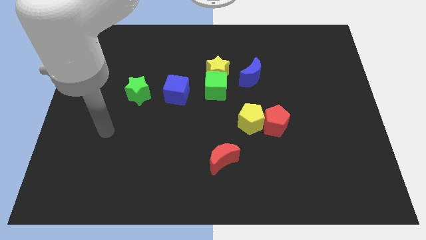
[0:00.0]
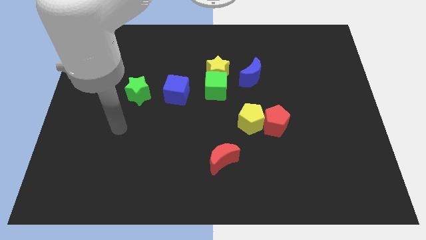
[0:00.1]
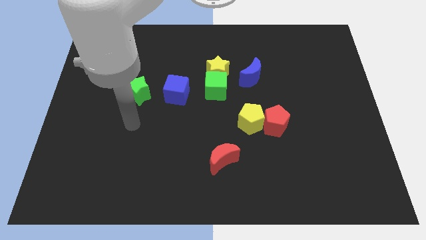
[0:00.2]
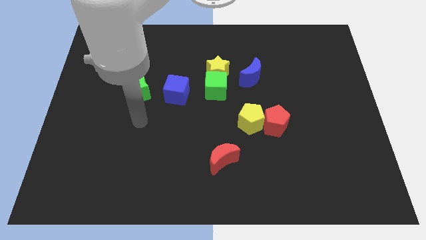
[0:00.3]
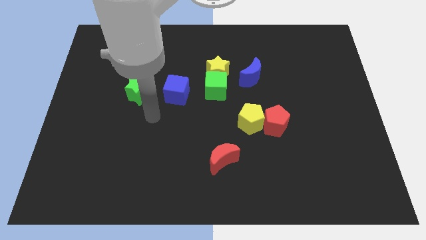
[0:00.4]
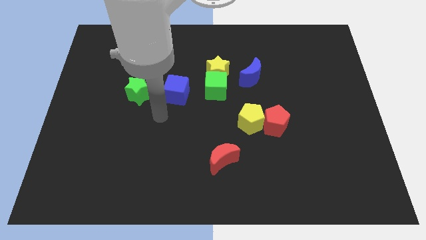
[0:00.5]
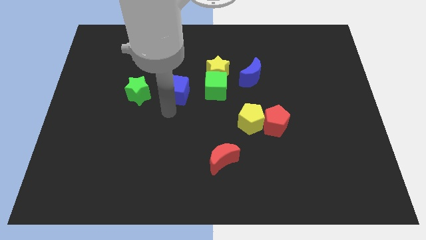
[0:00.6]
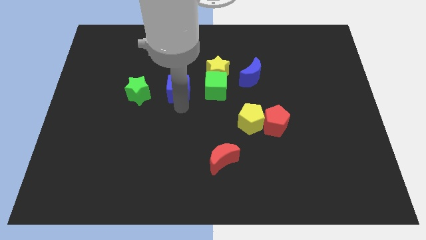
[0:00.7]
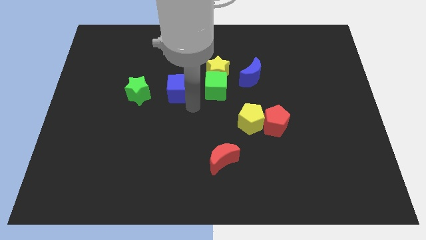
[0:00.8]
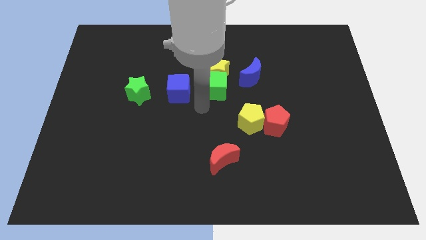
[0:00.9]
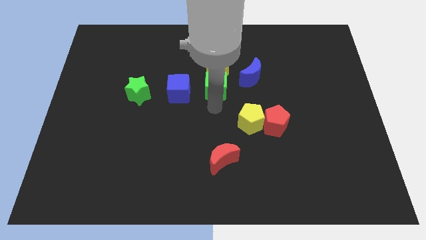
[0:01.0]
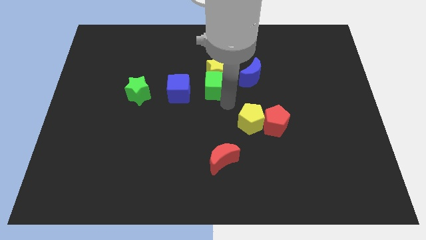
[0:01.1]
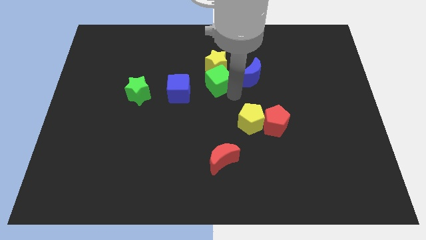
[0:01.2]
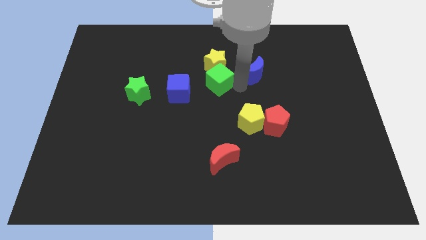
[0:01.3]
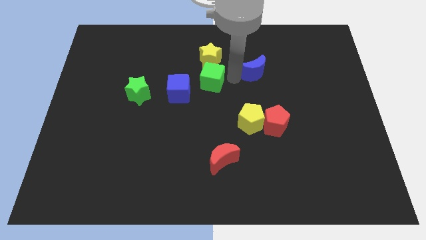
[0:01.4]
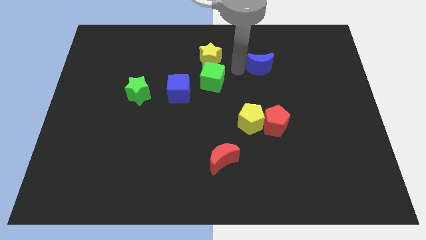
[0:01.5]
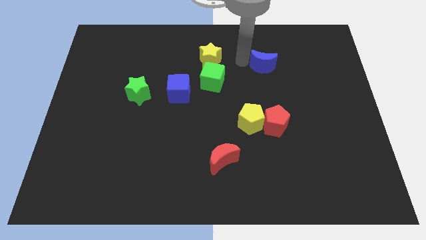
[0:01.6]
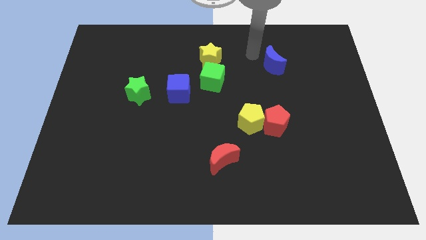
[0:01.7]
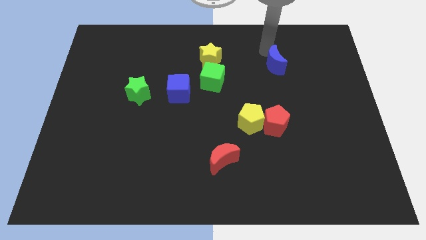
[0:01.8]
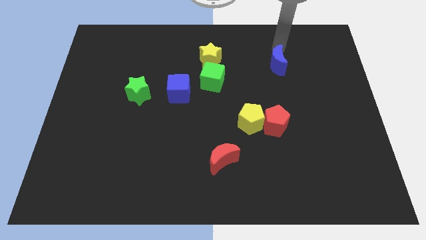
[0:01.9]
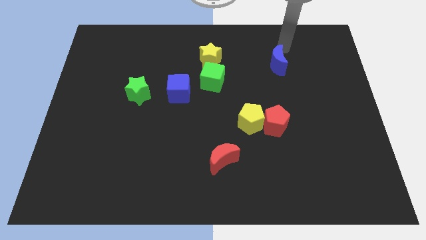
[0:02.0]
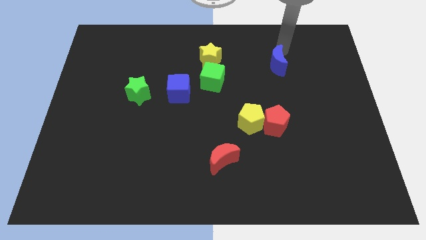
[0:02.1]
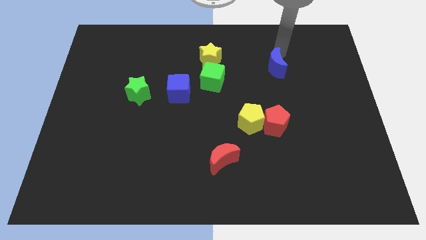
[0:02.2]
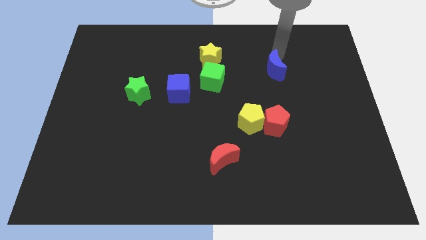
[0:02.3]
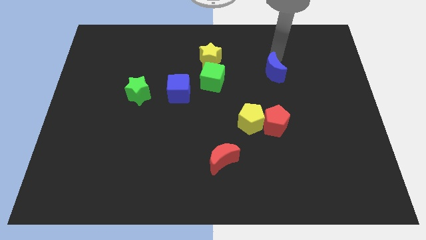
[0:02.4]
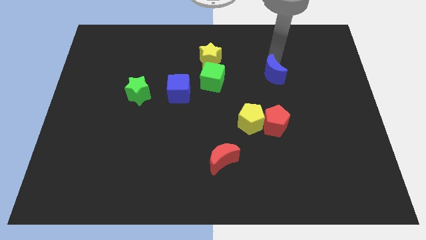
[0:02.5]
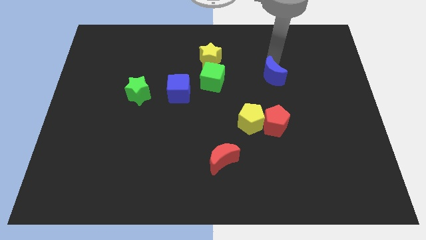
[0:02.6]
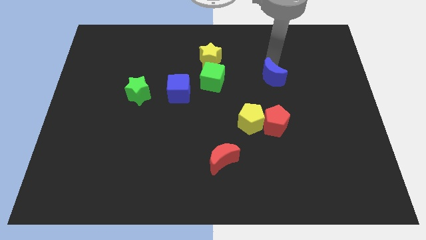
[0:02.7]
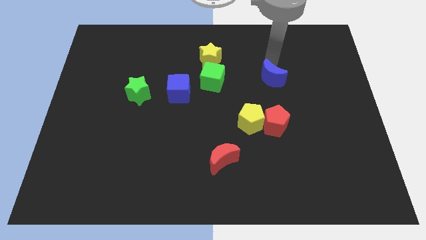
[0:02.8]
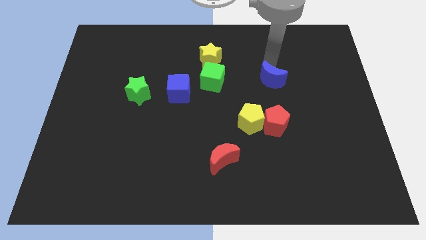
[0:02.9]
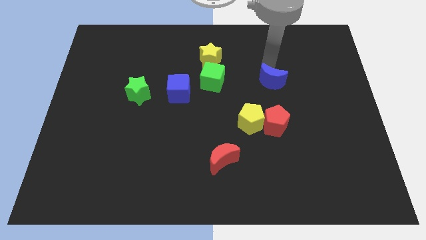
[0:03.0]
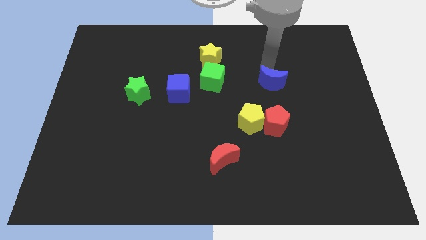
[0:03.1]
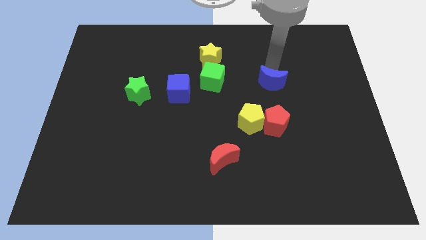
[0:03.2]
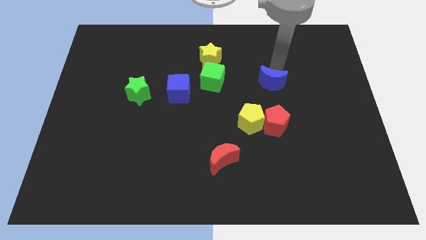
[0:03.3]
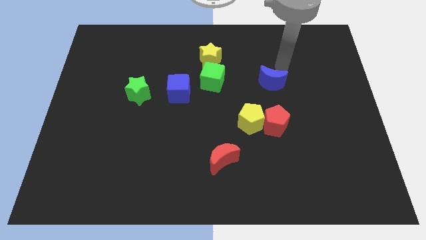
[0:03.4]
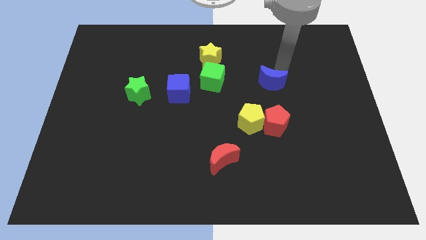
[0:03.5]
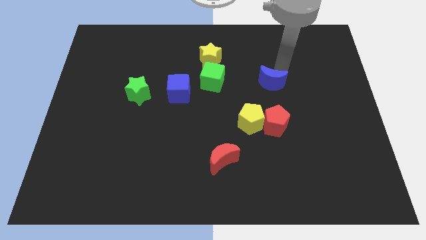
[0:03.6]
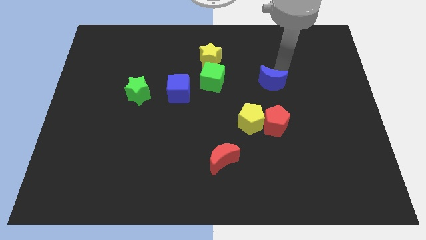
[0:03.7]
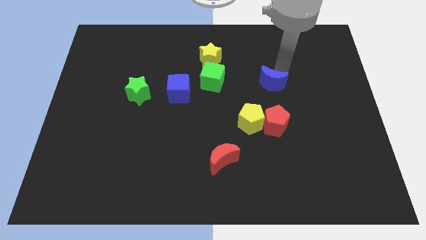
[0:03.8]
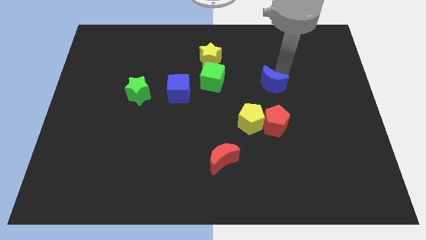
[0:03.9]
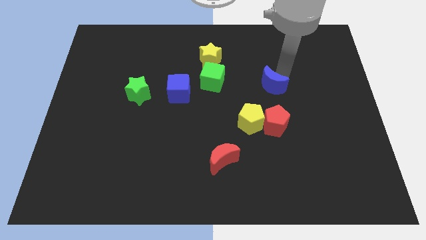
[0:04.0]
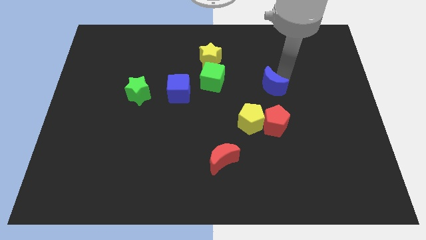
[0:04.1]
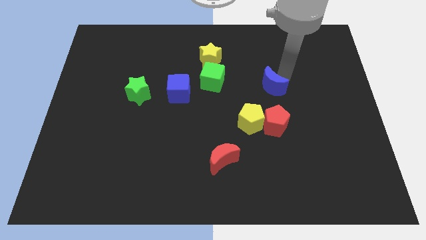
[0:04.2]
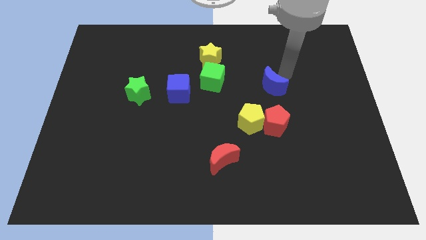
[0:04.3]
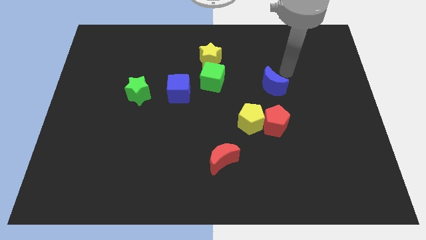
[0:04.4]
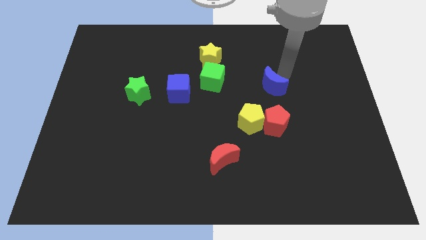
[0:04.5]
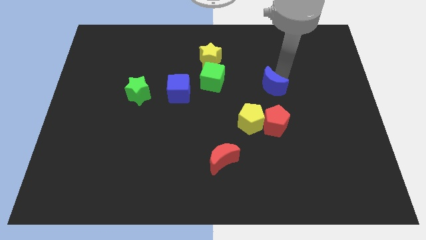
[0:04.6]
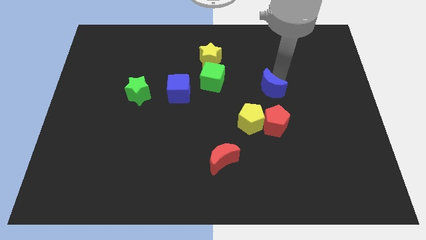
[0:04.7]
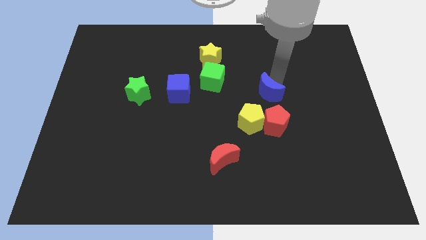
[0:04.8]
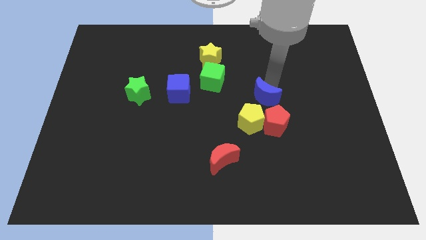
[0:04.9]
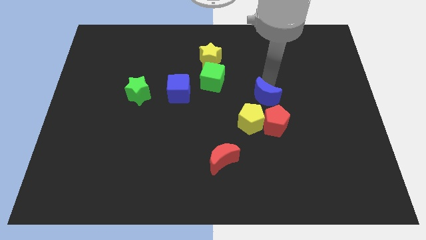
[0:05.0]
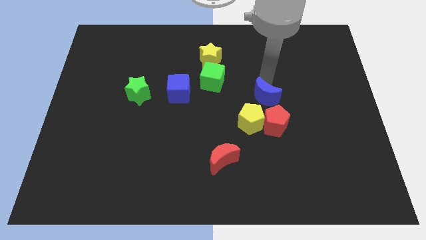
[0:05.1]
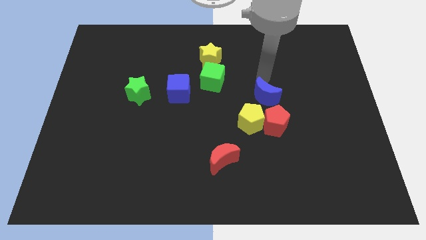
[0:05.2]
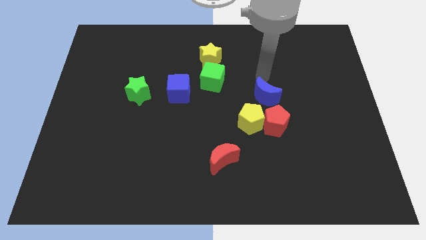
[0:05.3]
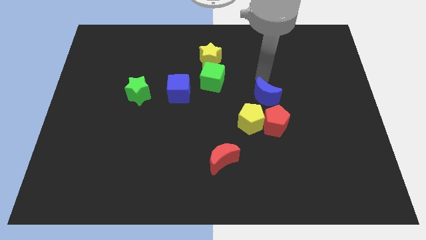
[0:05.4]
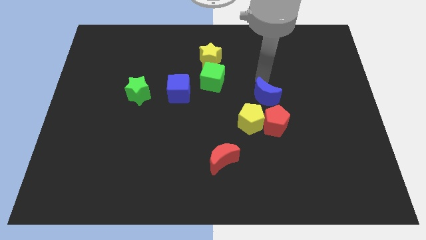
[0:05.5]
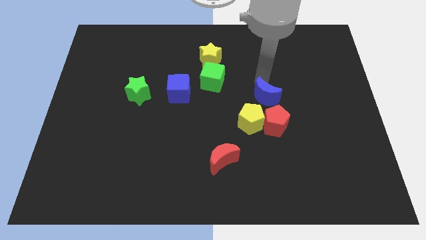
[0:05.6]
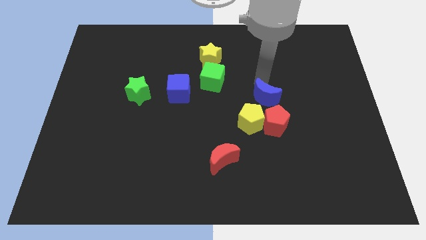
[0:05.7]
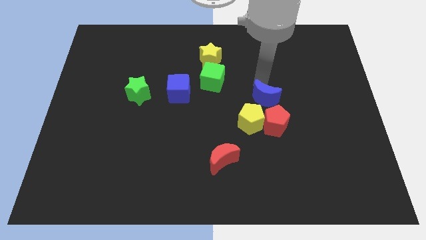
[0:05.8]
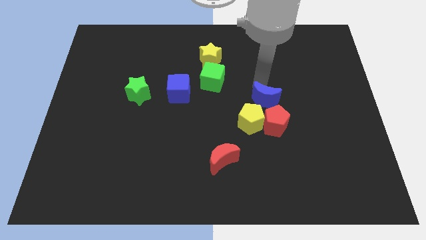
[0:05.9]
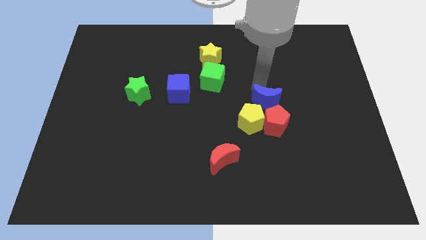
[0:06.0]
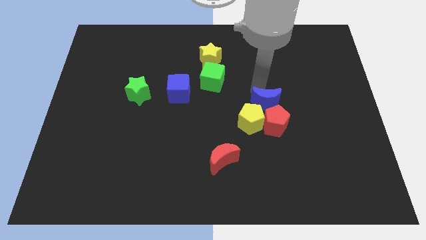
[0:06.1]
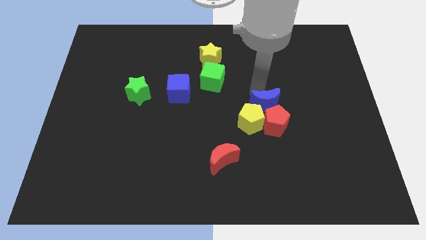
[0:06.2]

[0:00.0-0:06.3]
push the blue moon to the red pentagon
